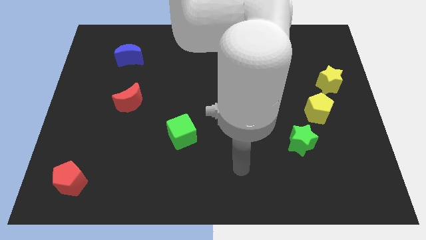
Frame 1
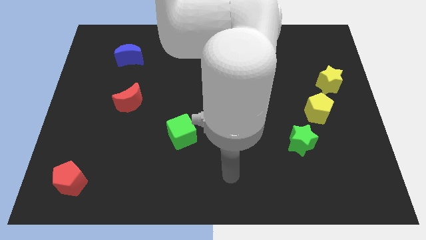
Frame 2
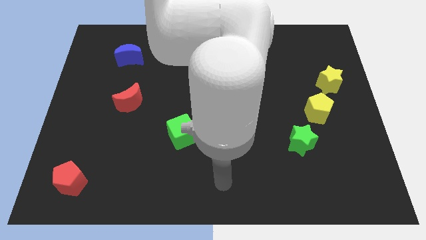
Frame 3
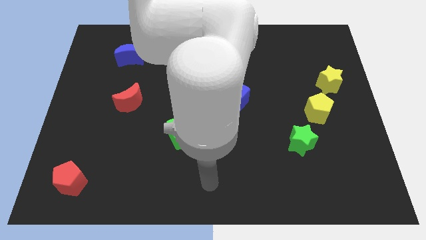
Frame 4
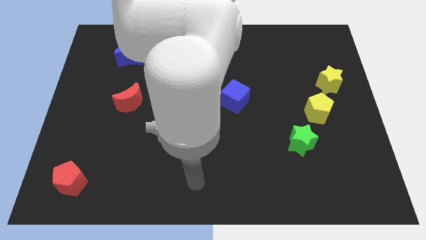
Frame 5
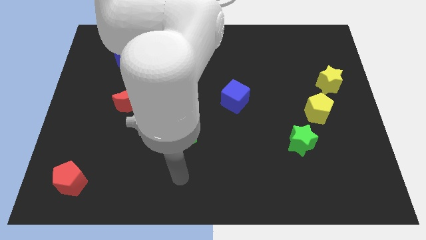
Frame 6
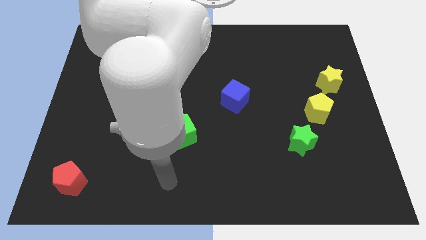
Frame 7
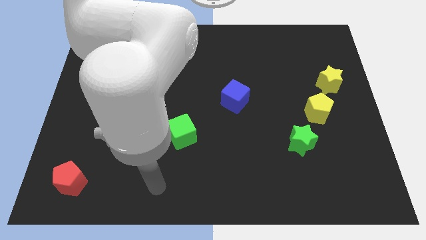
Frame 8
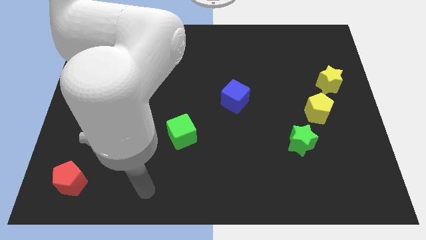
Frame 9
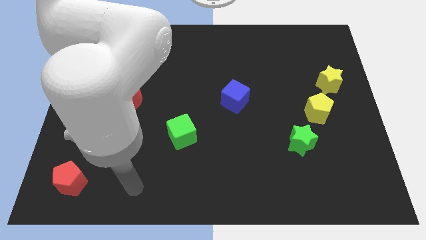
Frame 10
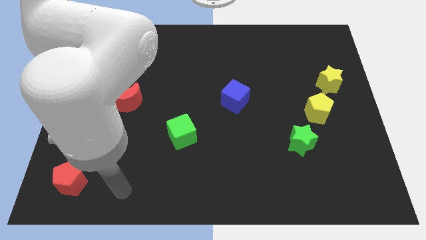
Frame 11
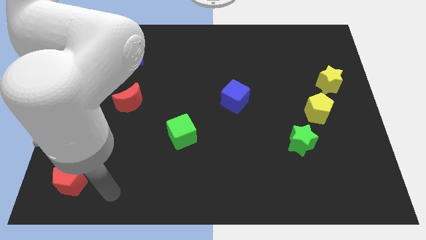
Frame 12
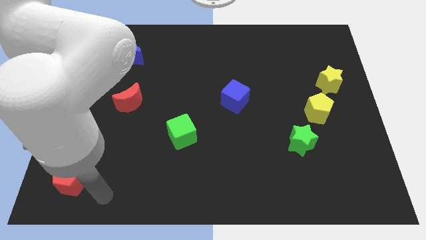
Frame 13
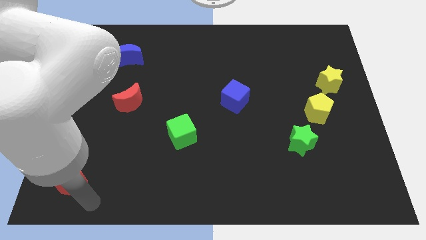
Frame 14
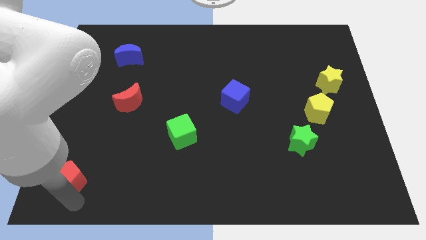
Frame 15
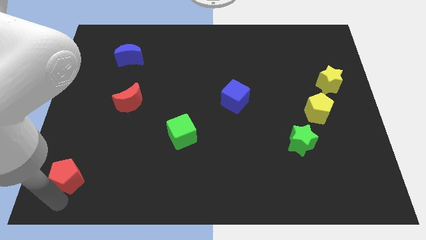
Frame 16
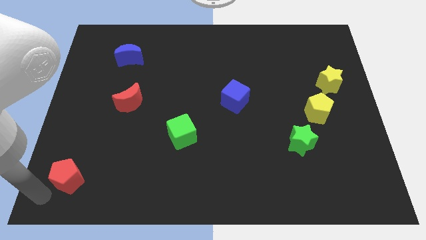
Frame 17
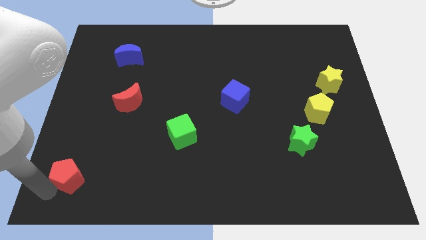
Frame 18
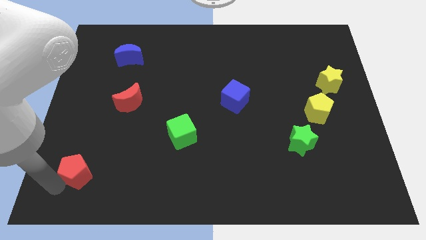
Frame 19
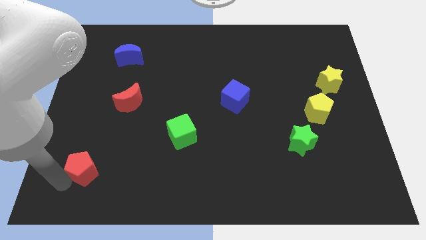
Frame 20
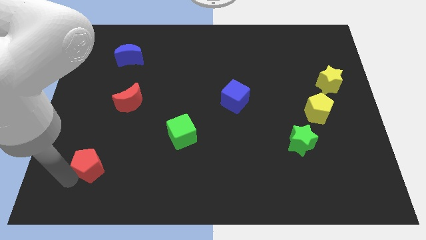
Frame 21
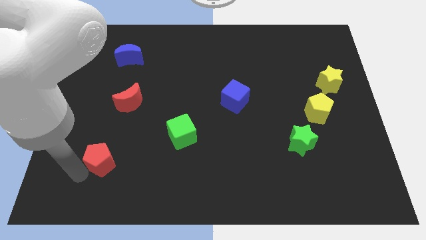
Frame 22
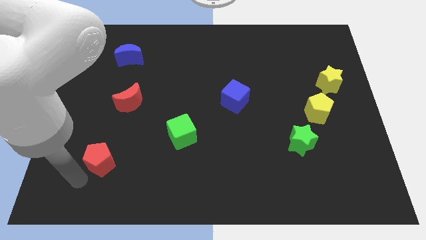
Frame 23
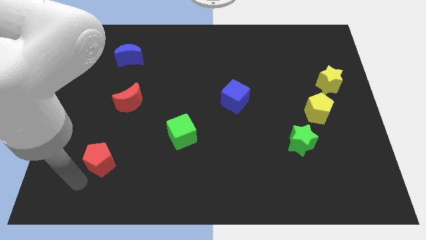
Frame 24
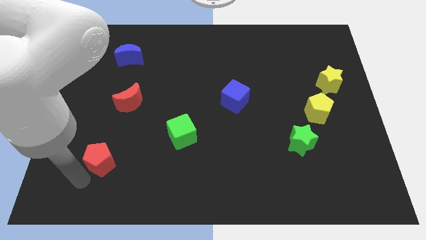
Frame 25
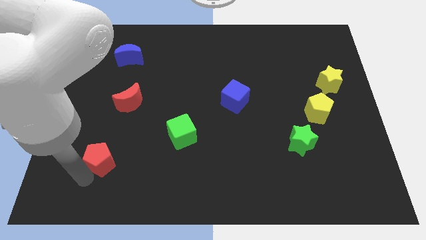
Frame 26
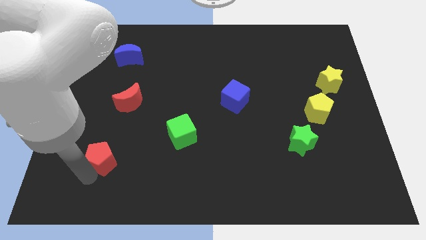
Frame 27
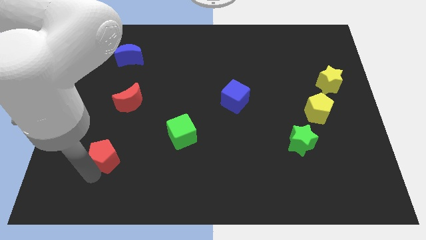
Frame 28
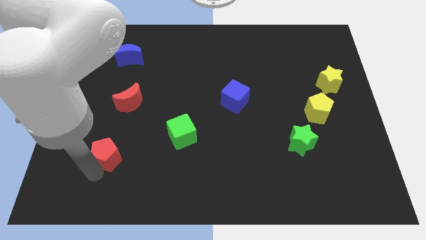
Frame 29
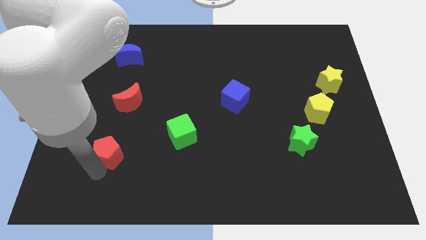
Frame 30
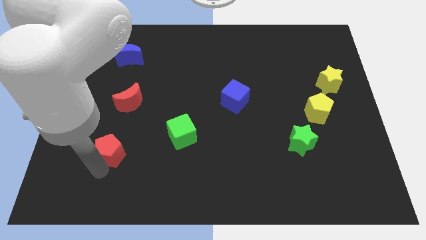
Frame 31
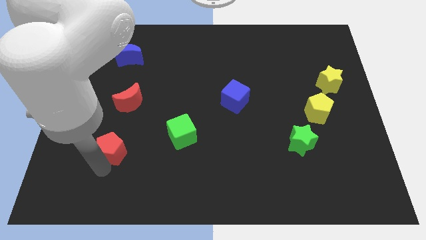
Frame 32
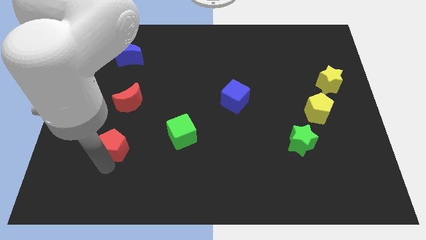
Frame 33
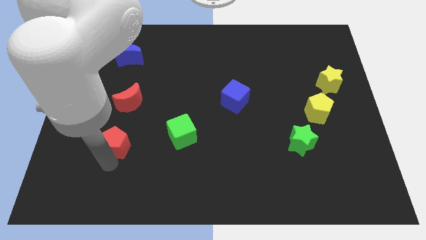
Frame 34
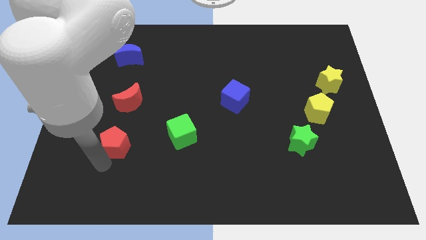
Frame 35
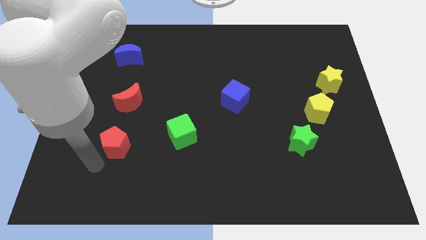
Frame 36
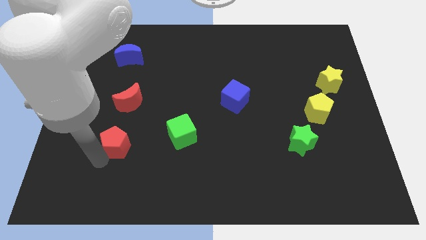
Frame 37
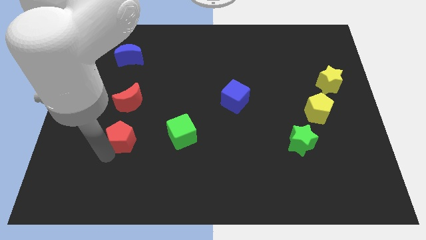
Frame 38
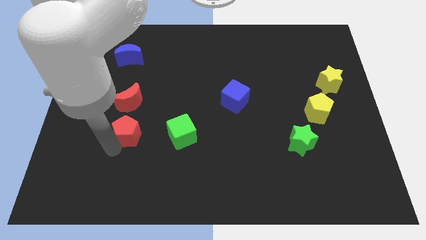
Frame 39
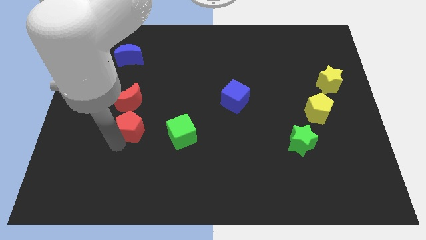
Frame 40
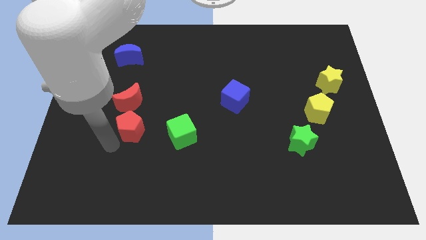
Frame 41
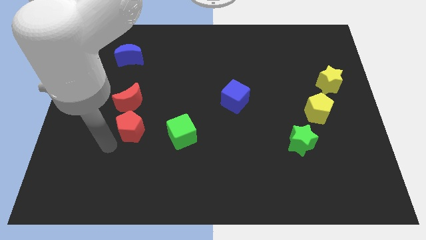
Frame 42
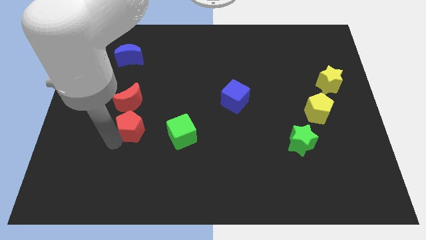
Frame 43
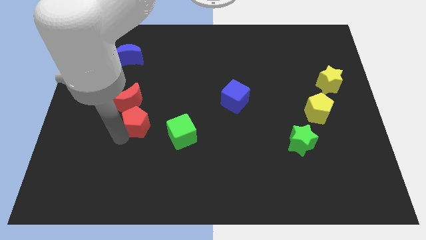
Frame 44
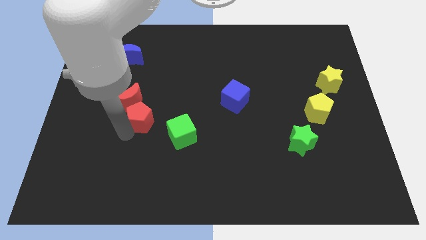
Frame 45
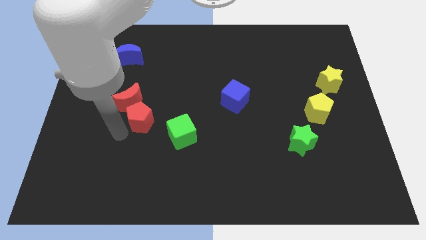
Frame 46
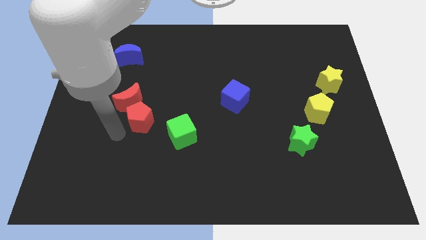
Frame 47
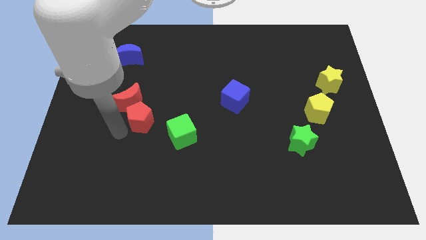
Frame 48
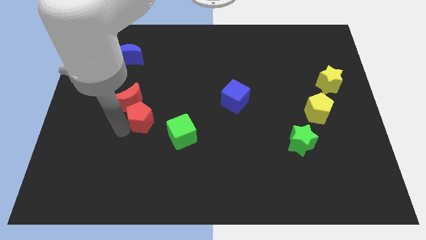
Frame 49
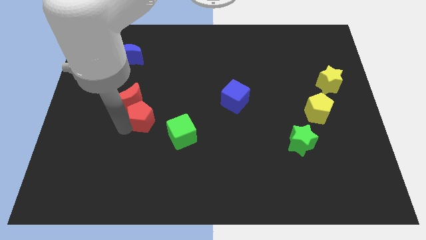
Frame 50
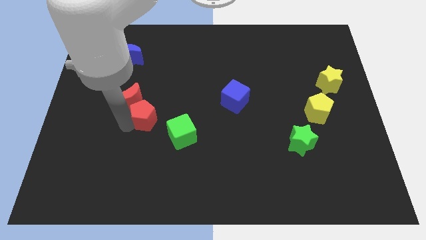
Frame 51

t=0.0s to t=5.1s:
slide the red pentagon diagonally up and to the right

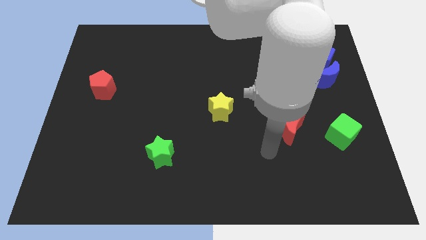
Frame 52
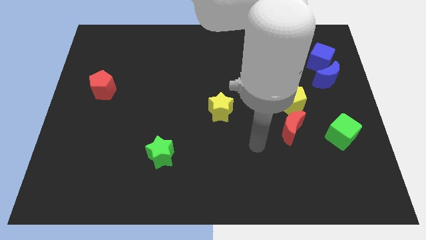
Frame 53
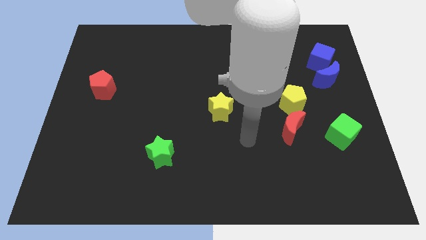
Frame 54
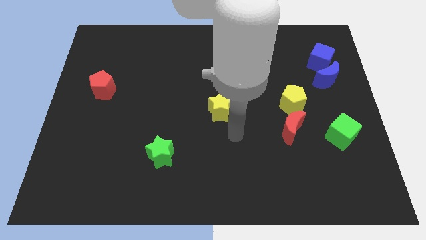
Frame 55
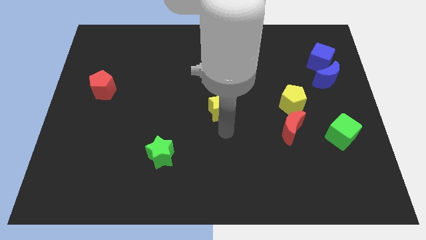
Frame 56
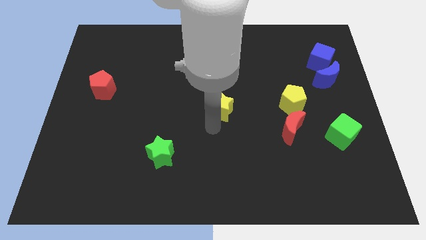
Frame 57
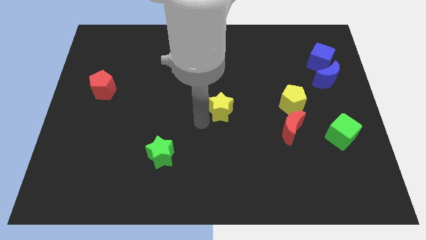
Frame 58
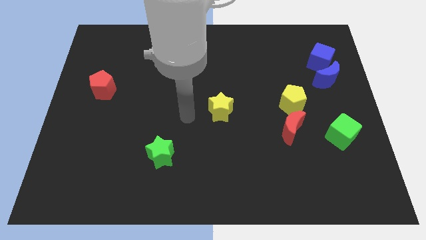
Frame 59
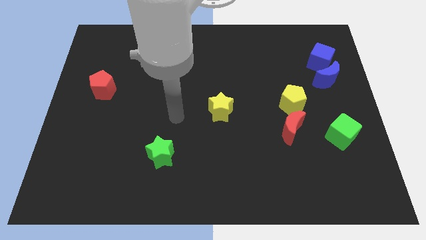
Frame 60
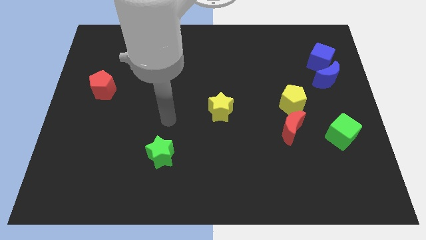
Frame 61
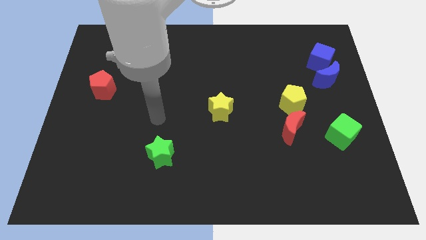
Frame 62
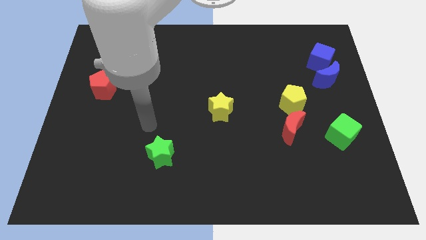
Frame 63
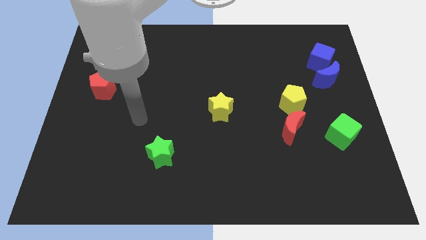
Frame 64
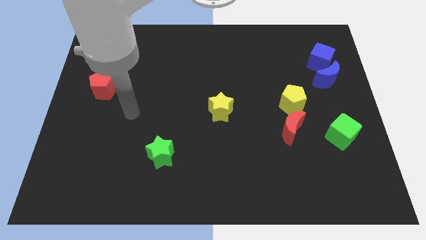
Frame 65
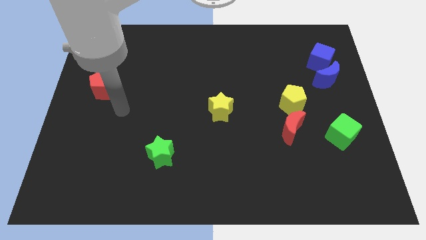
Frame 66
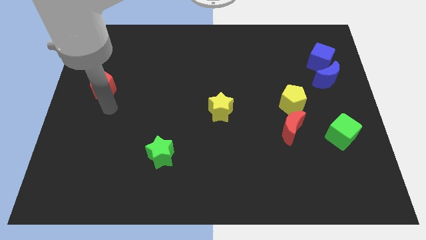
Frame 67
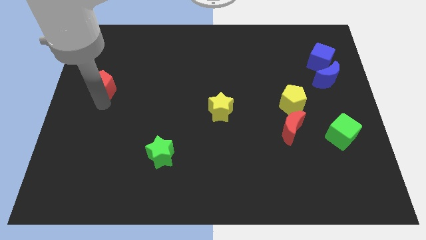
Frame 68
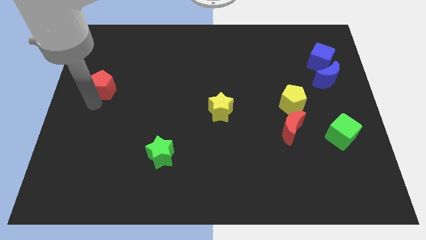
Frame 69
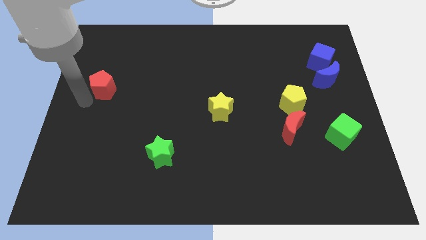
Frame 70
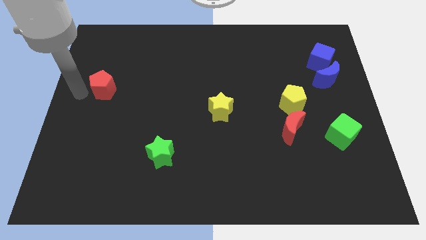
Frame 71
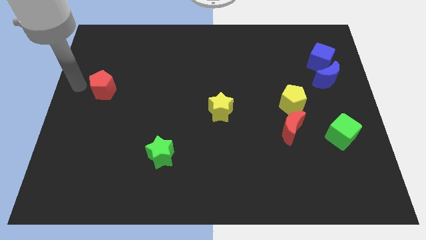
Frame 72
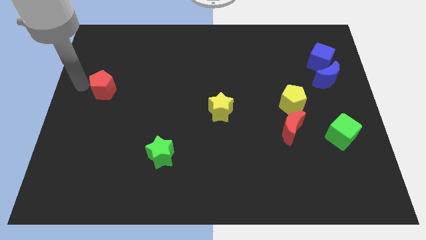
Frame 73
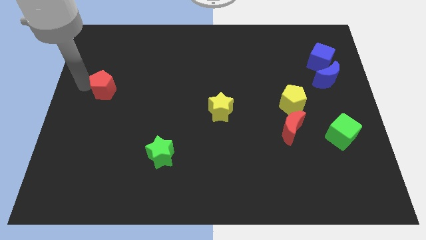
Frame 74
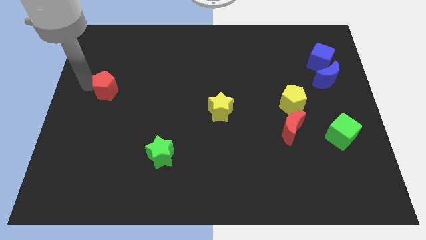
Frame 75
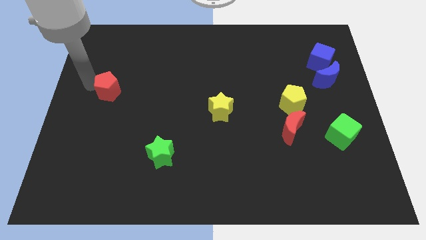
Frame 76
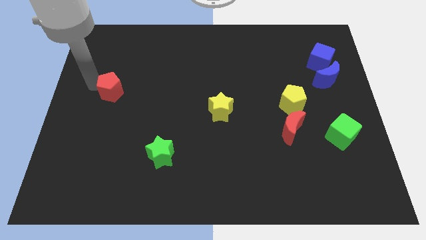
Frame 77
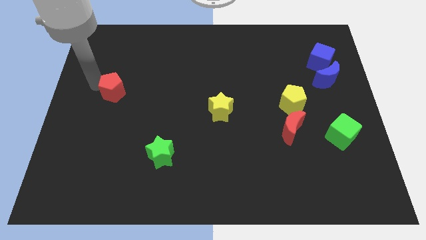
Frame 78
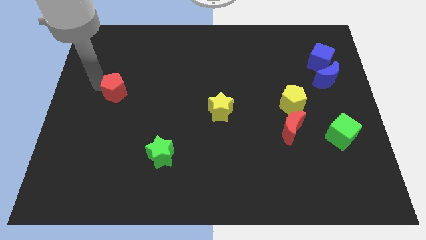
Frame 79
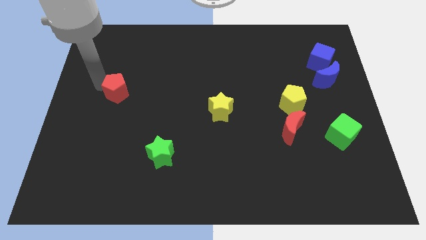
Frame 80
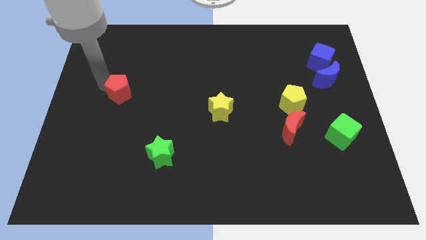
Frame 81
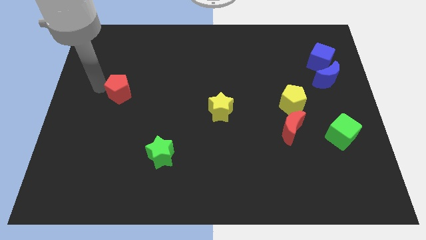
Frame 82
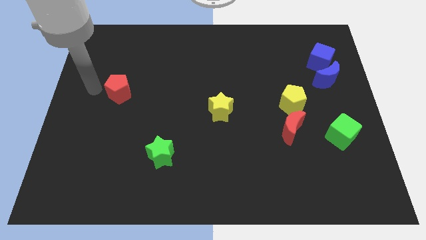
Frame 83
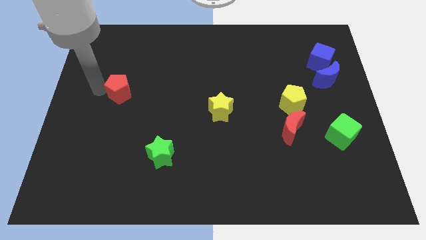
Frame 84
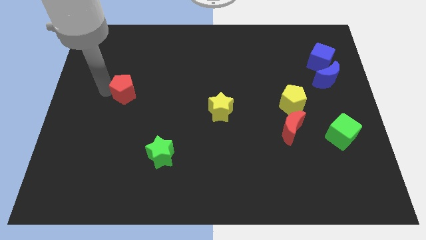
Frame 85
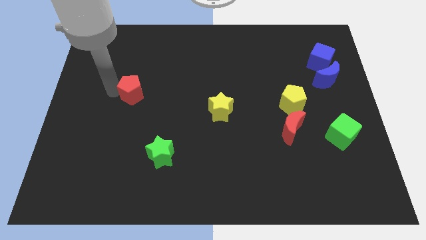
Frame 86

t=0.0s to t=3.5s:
slide the red pentagon right a bit
